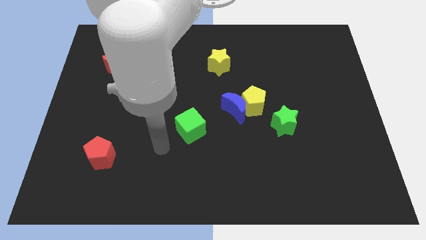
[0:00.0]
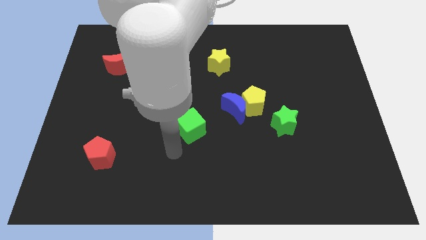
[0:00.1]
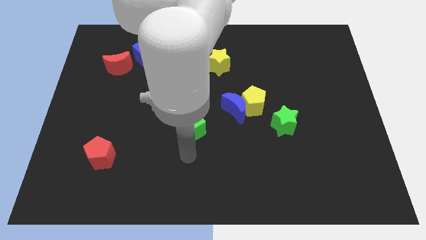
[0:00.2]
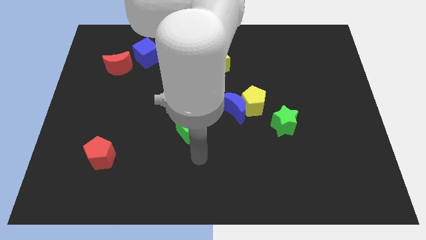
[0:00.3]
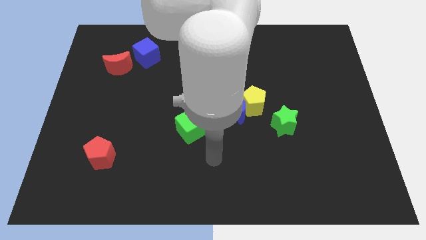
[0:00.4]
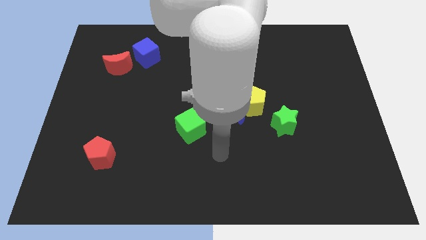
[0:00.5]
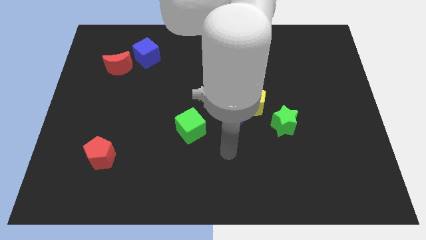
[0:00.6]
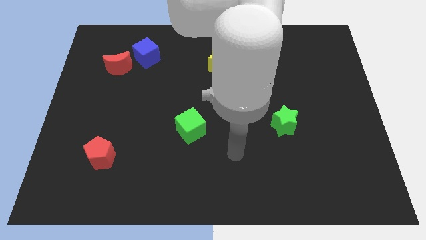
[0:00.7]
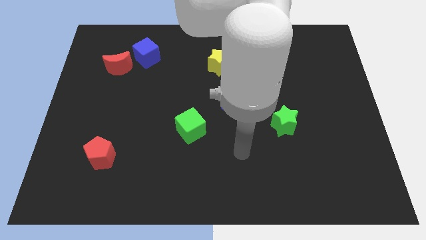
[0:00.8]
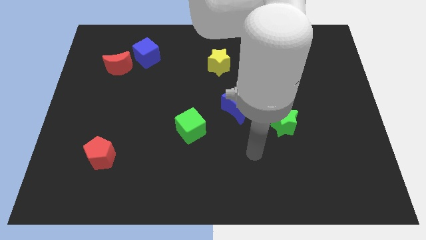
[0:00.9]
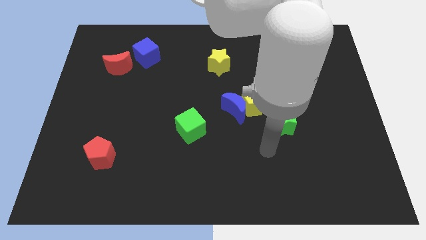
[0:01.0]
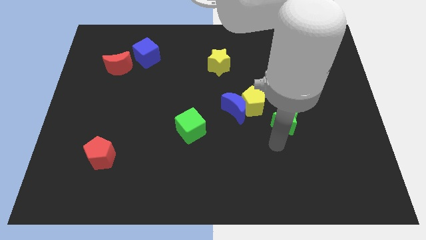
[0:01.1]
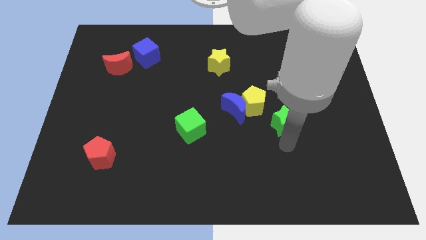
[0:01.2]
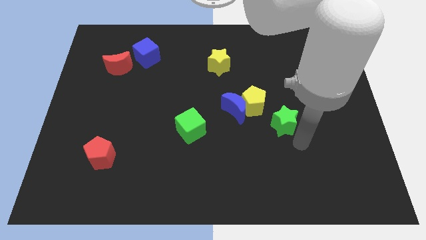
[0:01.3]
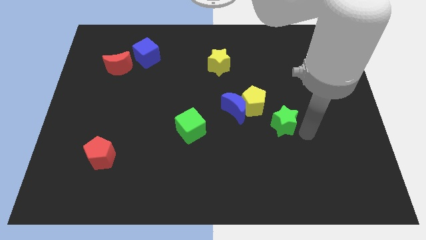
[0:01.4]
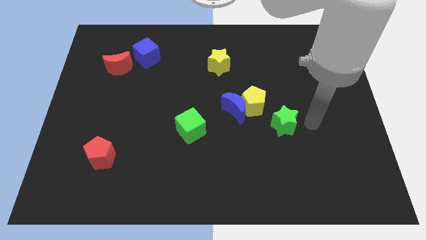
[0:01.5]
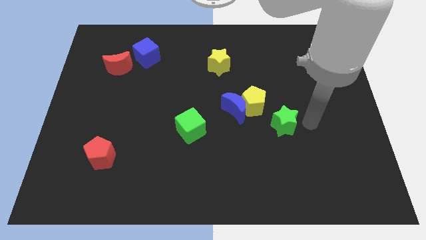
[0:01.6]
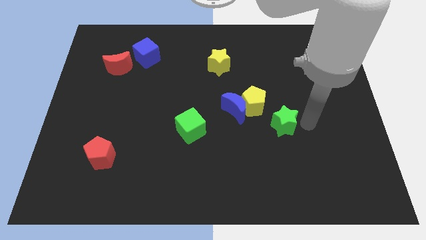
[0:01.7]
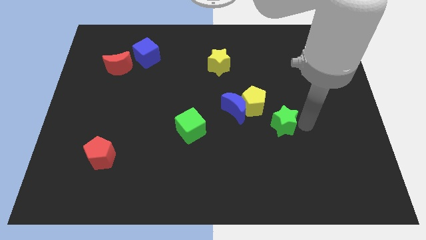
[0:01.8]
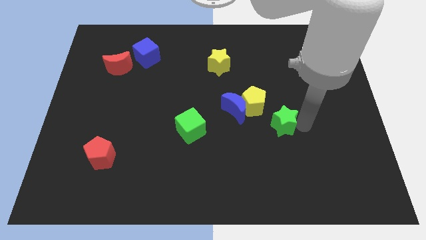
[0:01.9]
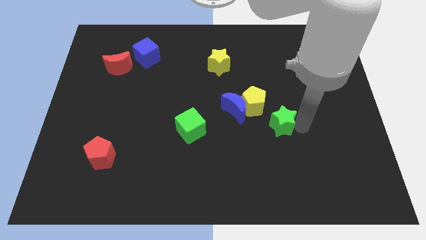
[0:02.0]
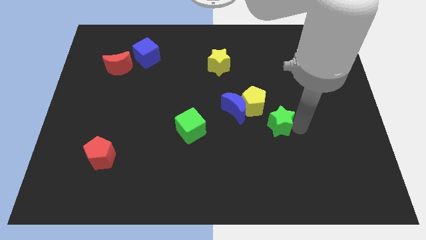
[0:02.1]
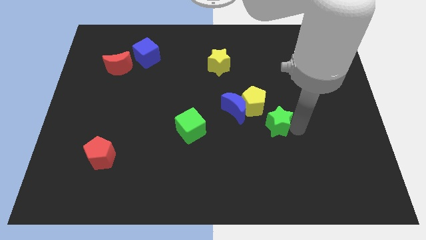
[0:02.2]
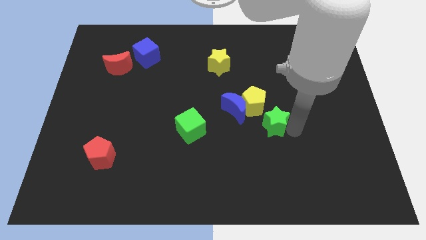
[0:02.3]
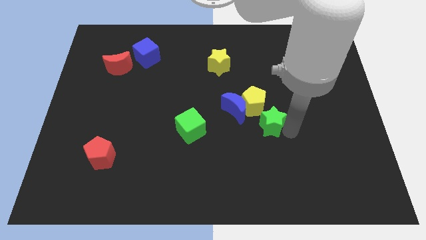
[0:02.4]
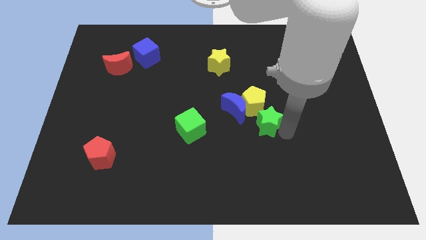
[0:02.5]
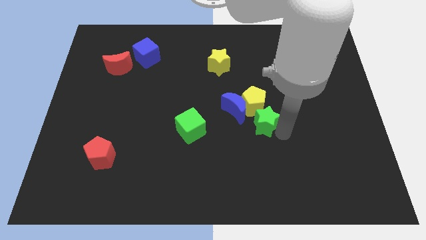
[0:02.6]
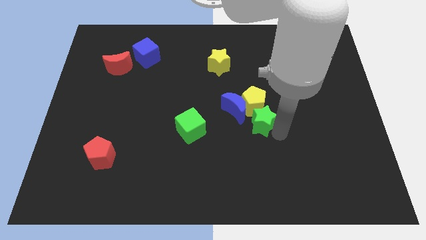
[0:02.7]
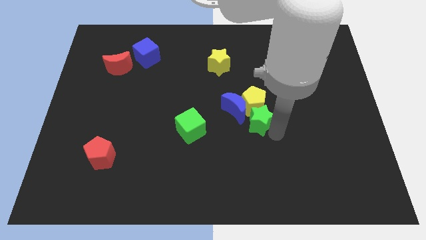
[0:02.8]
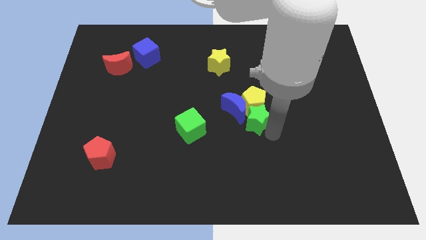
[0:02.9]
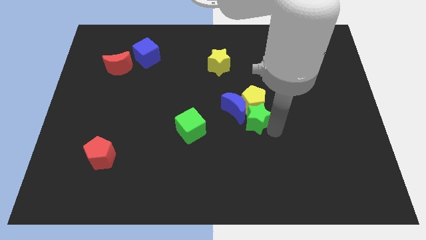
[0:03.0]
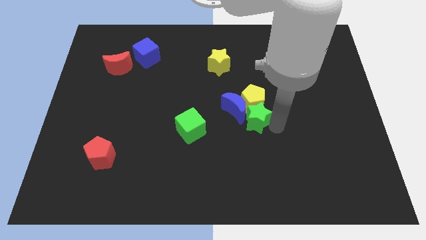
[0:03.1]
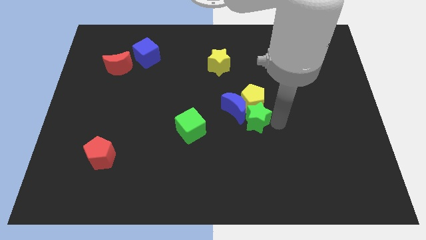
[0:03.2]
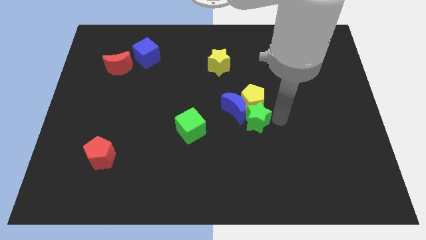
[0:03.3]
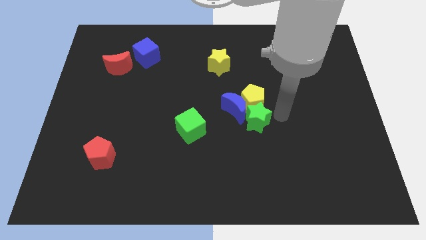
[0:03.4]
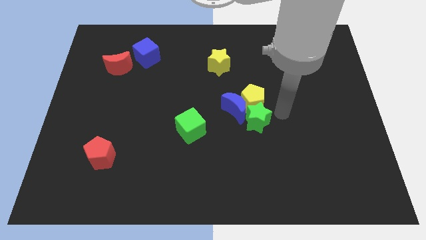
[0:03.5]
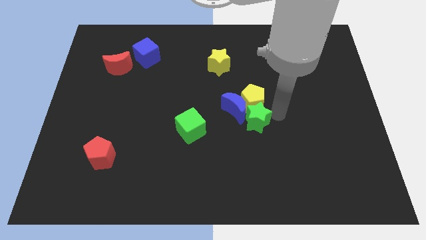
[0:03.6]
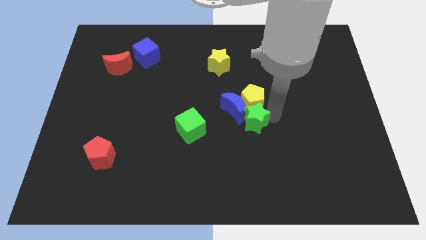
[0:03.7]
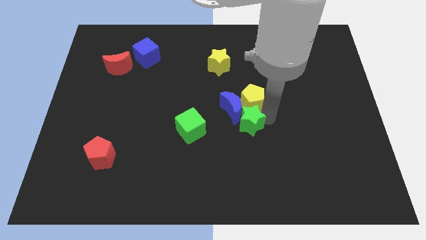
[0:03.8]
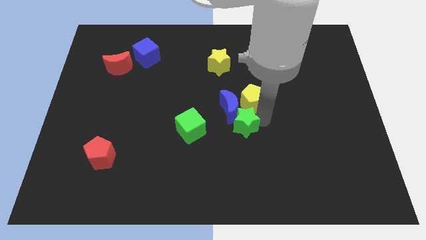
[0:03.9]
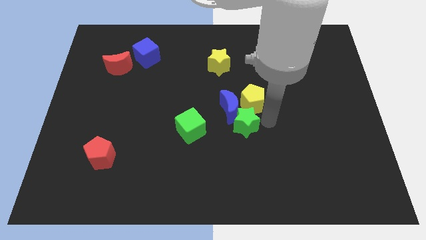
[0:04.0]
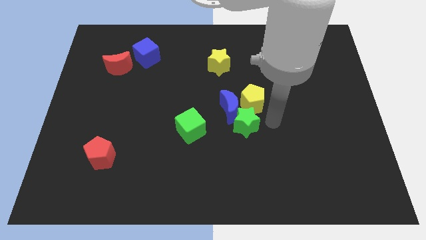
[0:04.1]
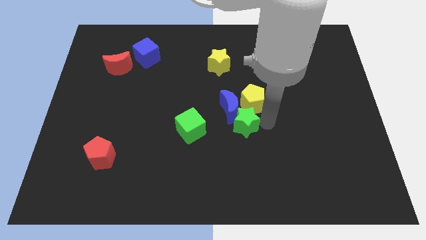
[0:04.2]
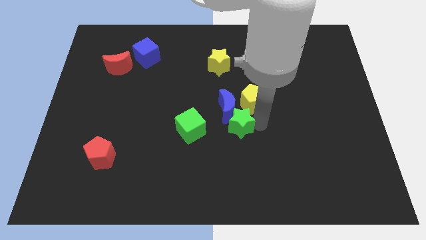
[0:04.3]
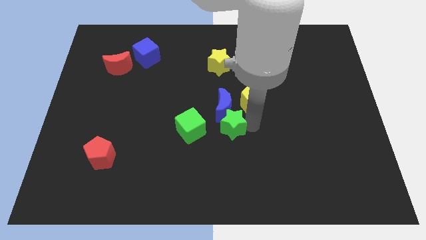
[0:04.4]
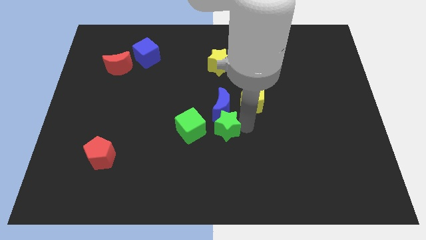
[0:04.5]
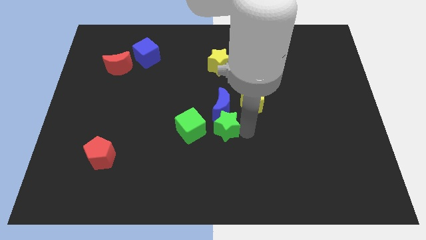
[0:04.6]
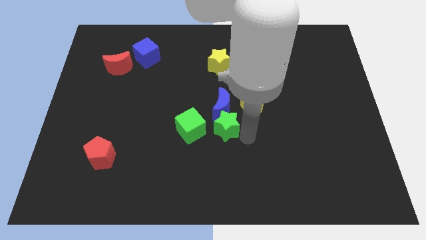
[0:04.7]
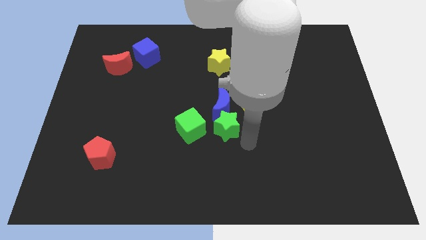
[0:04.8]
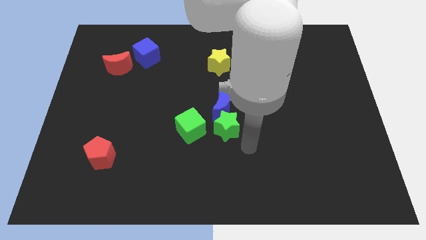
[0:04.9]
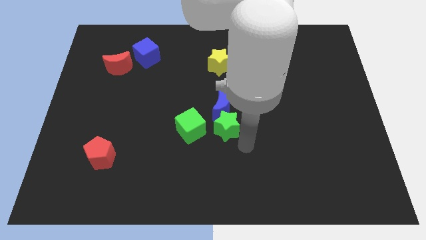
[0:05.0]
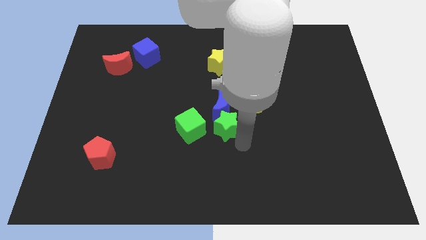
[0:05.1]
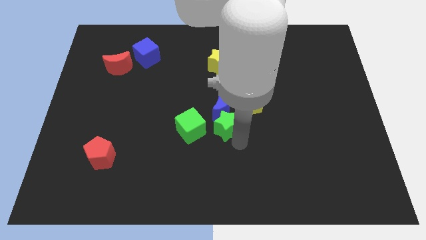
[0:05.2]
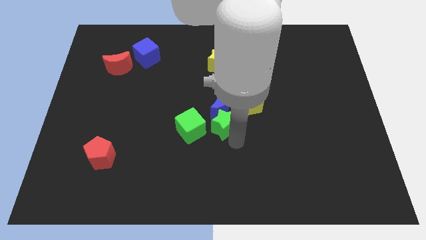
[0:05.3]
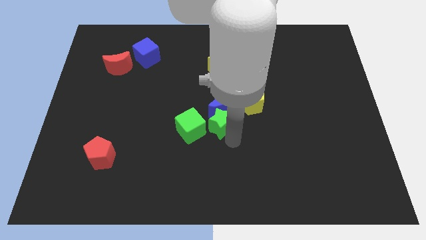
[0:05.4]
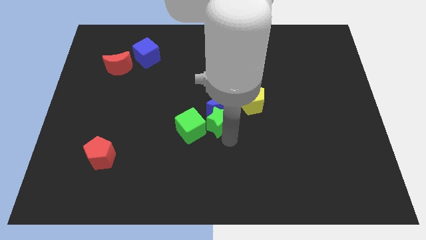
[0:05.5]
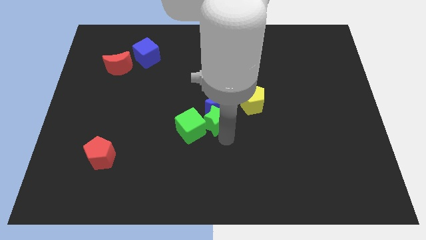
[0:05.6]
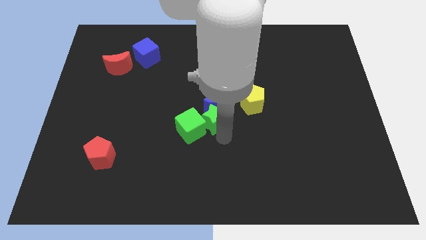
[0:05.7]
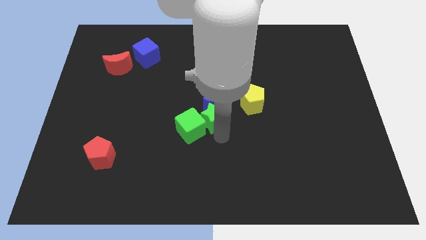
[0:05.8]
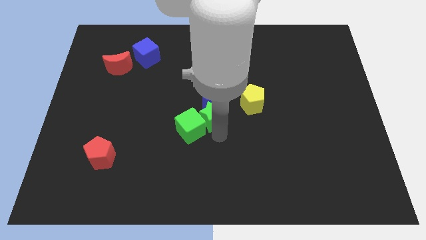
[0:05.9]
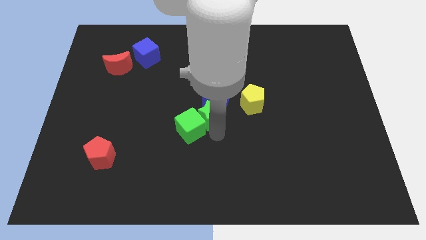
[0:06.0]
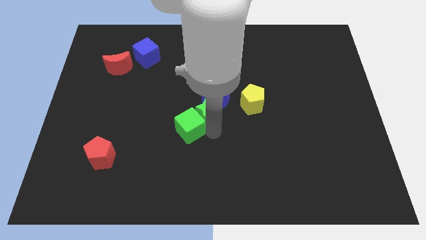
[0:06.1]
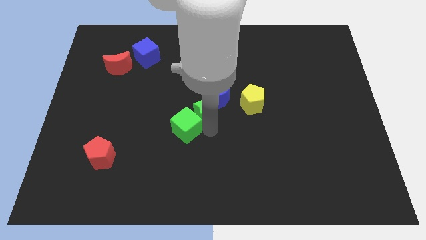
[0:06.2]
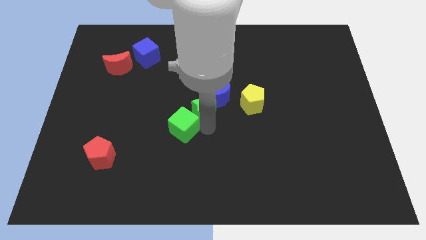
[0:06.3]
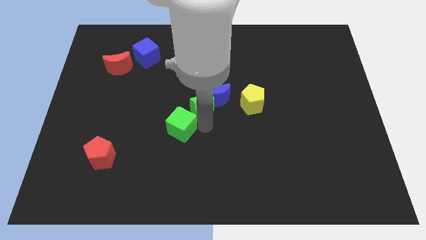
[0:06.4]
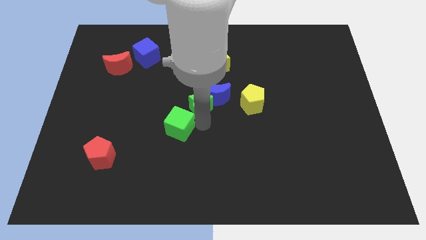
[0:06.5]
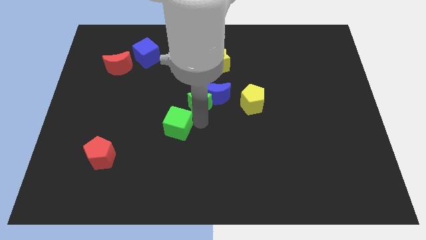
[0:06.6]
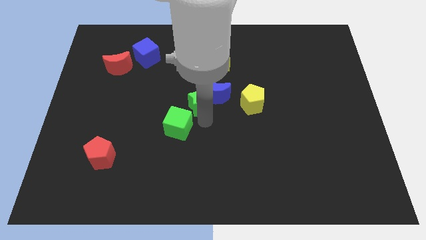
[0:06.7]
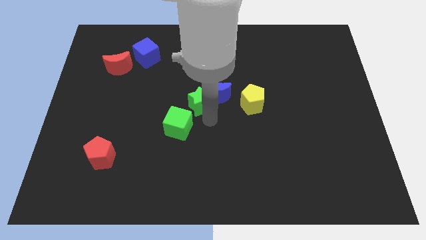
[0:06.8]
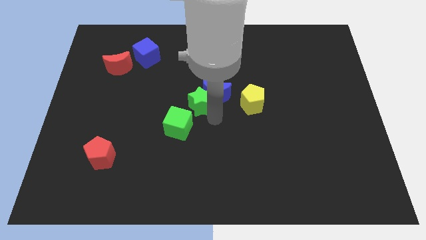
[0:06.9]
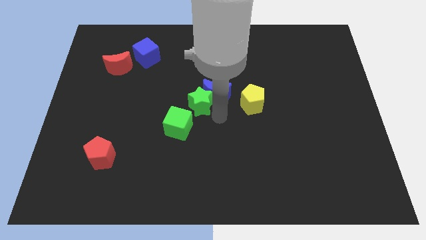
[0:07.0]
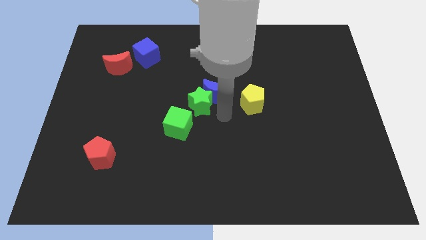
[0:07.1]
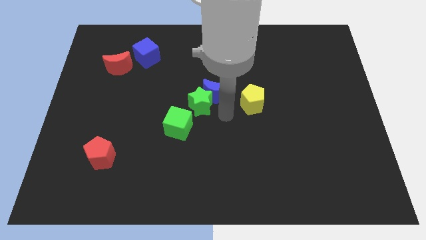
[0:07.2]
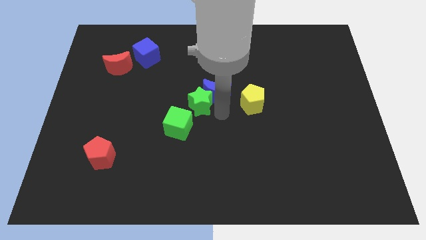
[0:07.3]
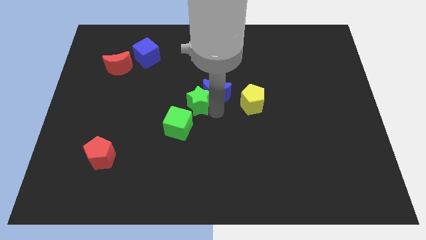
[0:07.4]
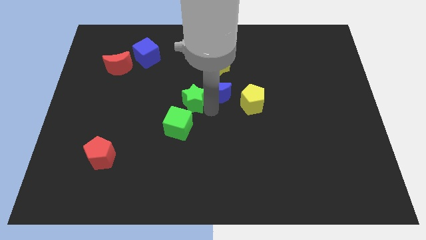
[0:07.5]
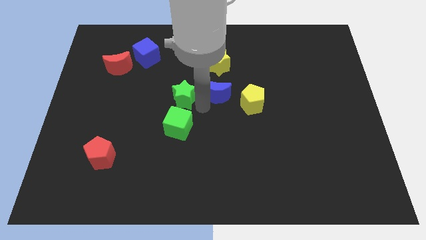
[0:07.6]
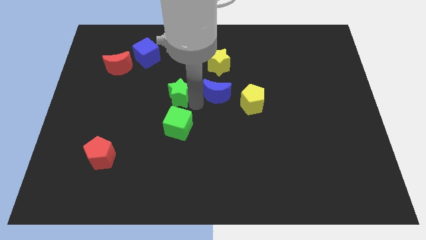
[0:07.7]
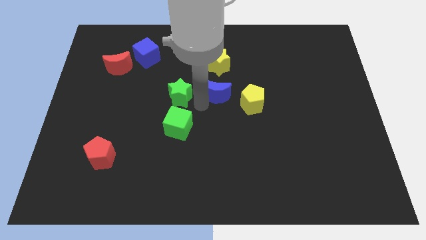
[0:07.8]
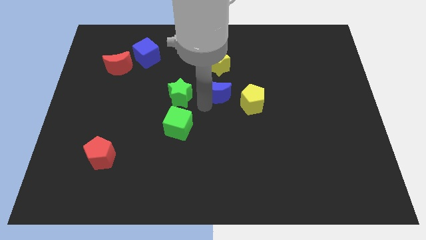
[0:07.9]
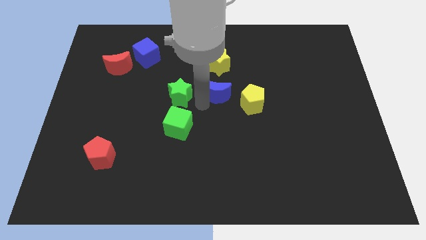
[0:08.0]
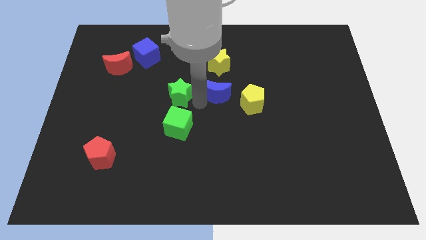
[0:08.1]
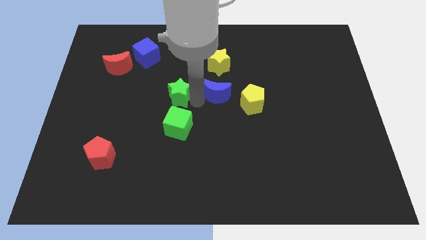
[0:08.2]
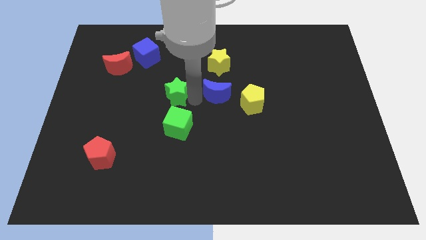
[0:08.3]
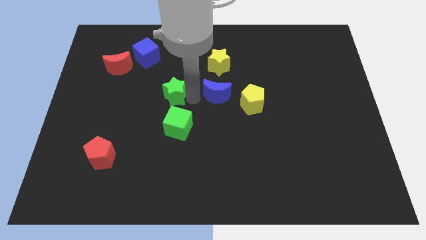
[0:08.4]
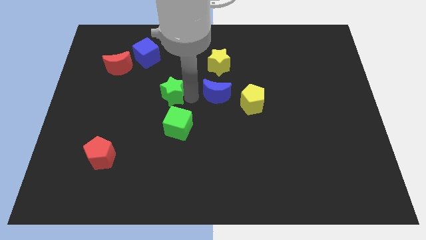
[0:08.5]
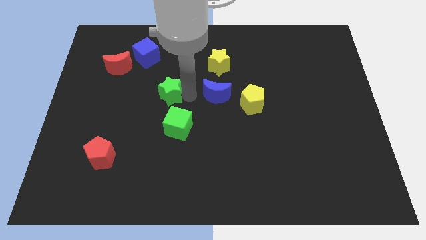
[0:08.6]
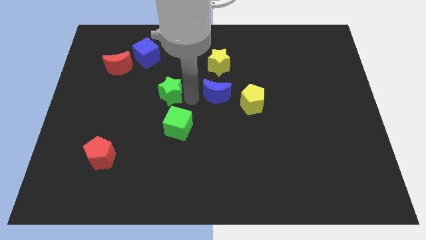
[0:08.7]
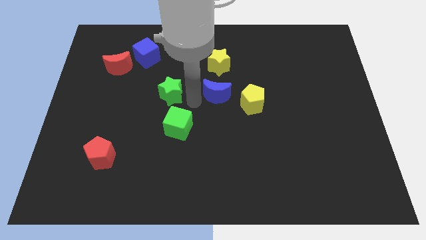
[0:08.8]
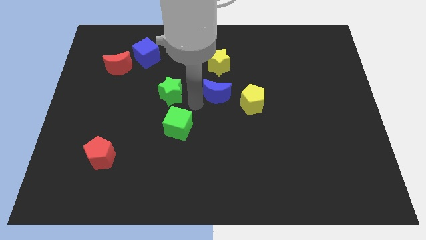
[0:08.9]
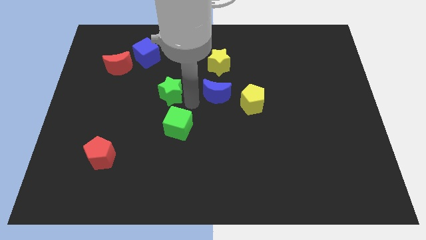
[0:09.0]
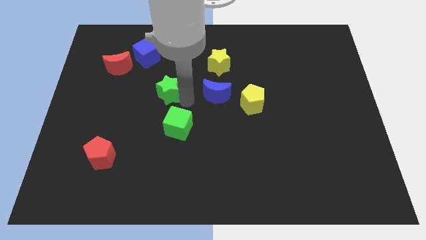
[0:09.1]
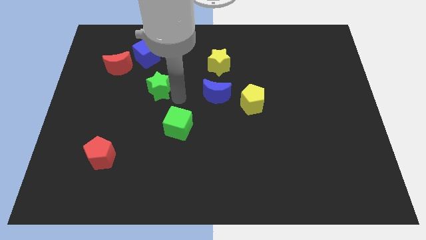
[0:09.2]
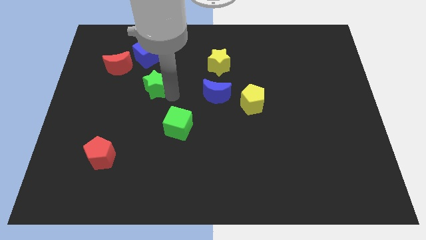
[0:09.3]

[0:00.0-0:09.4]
put the green star to the bottom right side of the red moon
